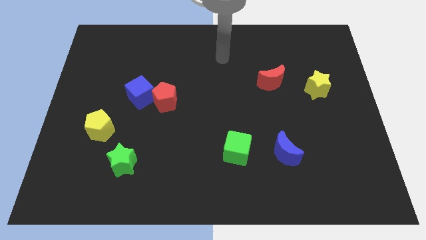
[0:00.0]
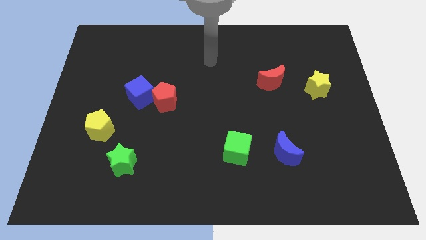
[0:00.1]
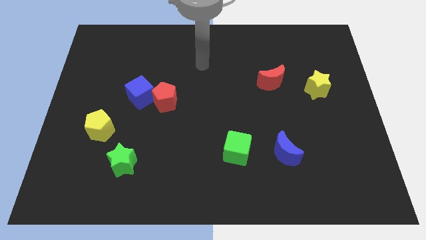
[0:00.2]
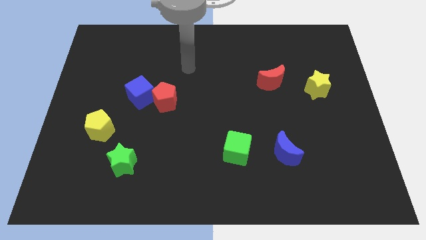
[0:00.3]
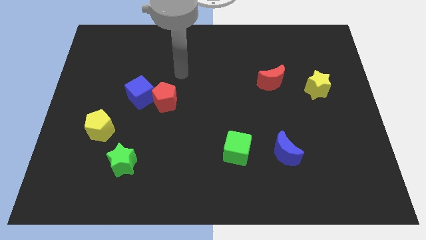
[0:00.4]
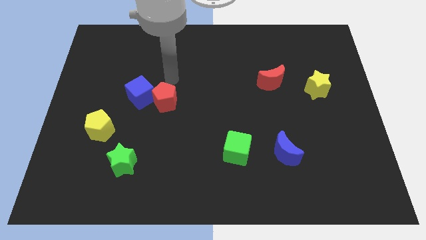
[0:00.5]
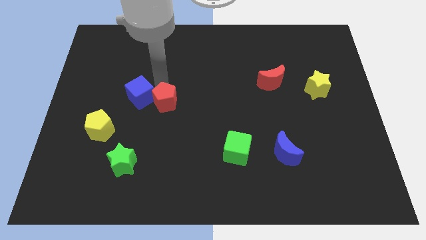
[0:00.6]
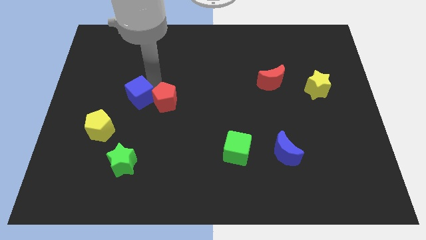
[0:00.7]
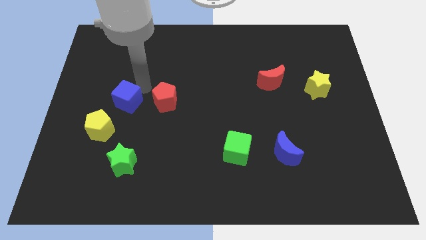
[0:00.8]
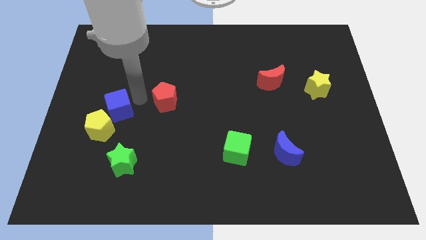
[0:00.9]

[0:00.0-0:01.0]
pull the red pentagon apart from the blue cube

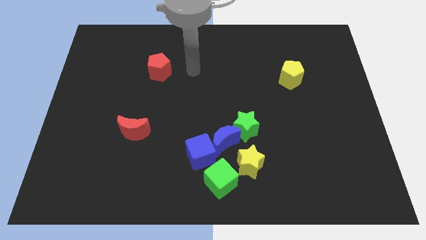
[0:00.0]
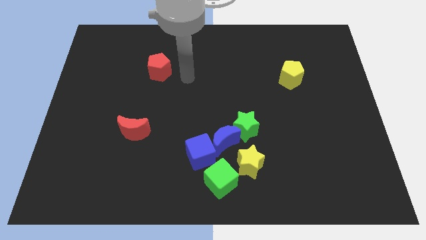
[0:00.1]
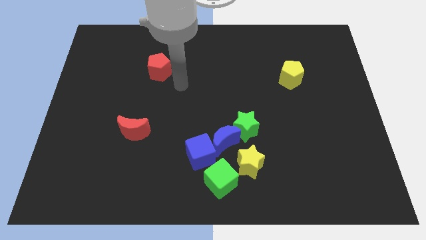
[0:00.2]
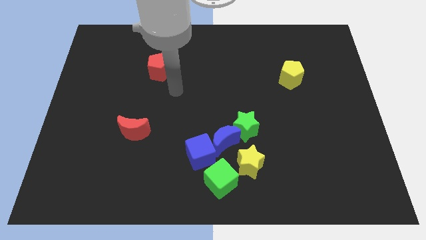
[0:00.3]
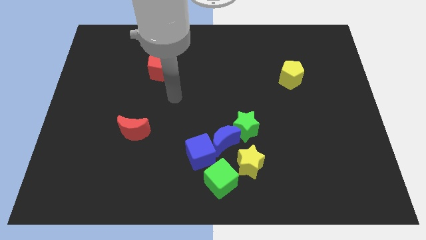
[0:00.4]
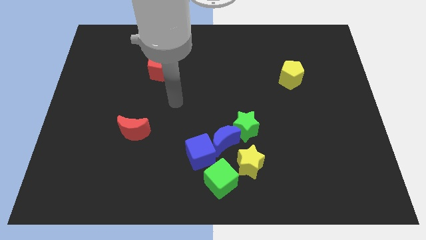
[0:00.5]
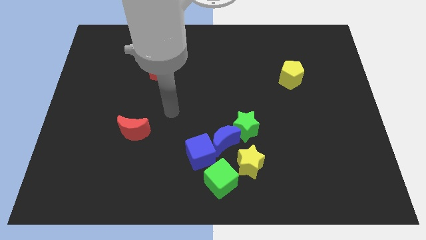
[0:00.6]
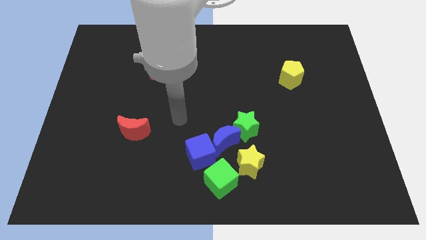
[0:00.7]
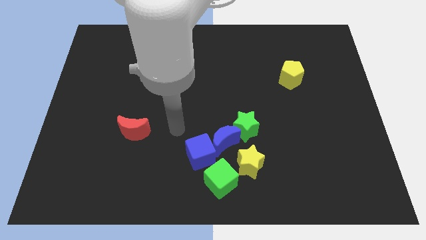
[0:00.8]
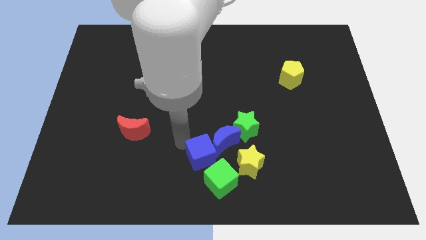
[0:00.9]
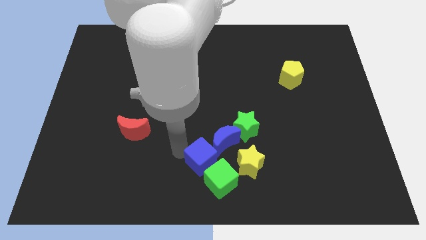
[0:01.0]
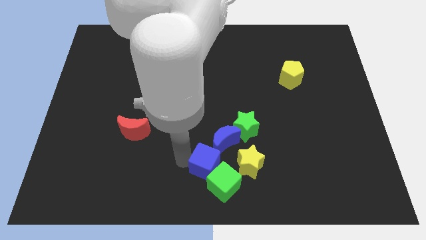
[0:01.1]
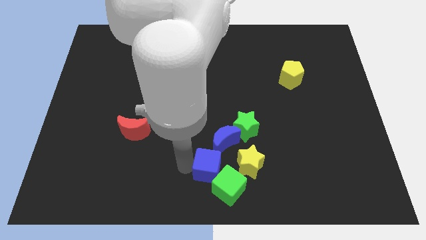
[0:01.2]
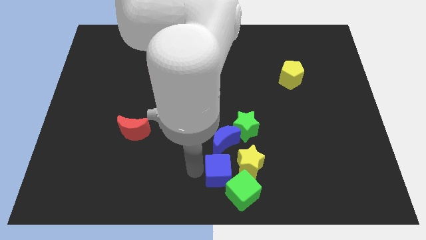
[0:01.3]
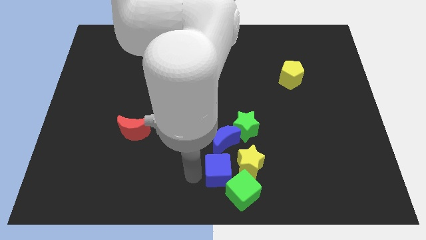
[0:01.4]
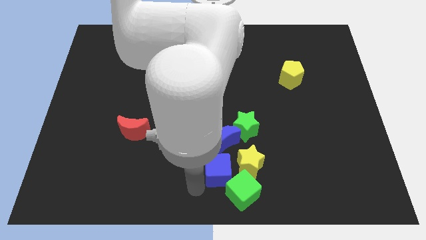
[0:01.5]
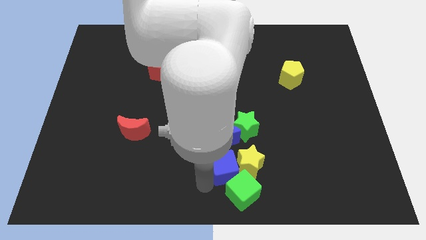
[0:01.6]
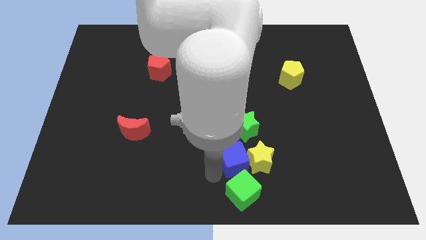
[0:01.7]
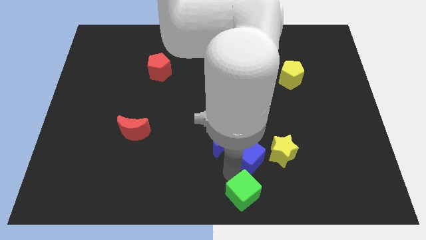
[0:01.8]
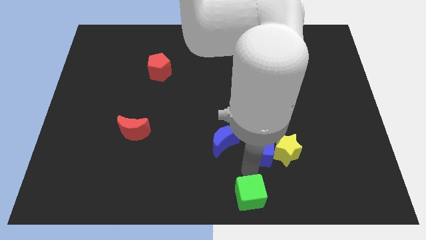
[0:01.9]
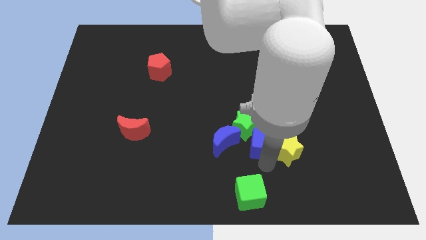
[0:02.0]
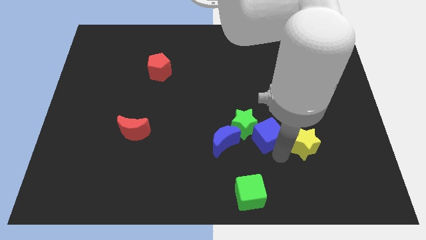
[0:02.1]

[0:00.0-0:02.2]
move the blue cube away from the blue moon and green cube

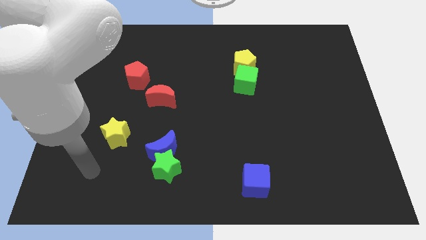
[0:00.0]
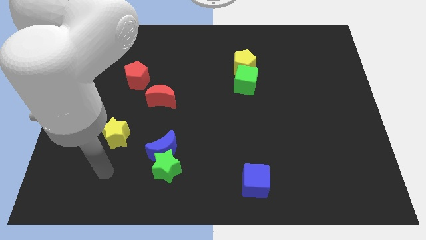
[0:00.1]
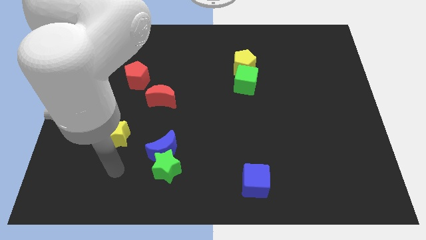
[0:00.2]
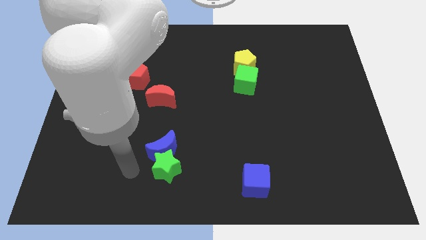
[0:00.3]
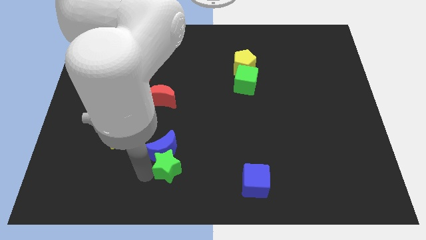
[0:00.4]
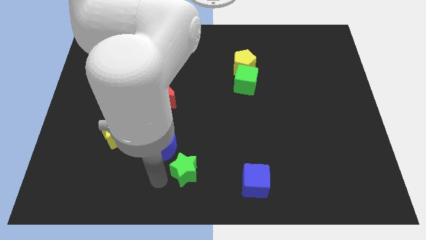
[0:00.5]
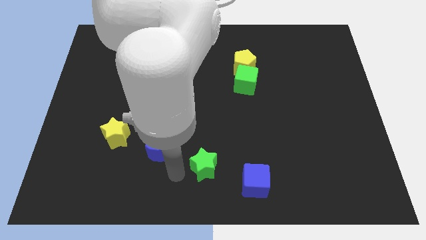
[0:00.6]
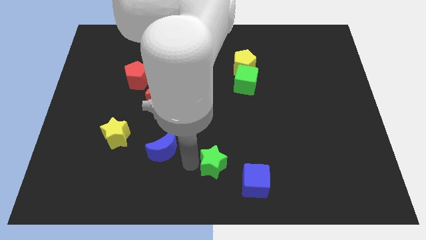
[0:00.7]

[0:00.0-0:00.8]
separate the blue moon from the green star

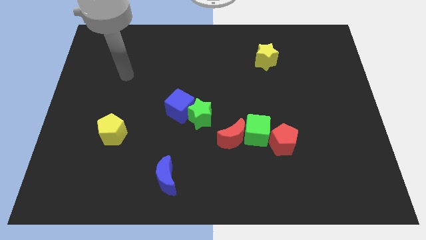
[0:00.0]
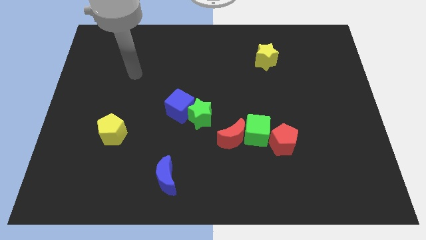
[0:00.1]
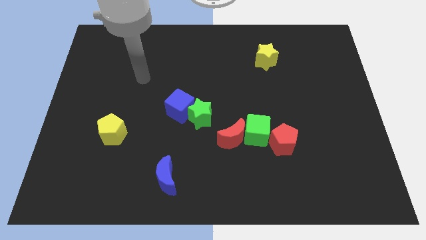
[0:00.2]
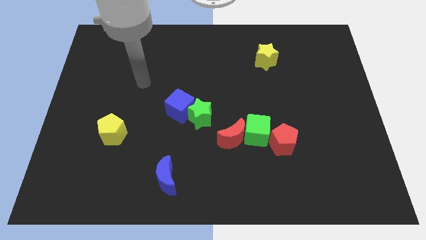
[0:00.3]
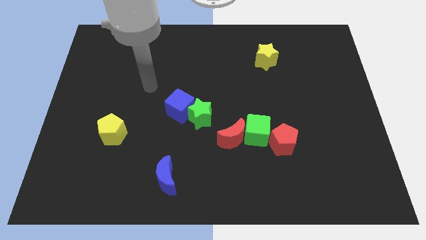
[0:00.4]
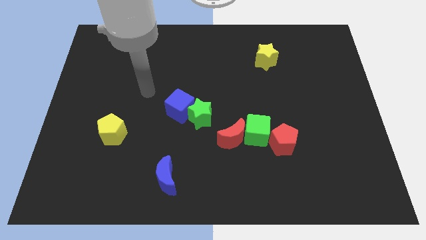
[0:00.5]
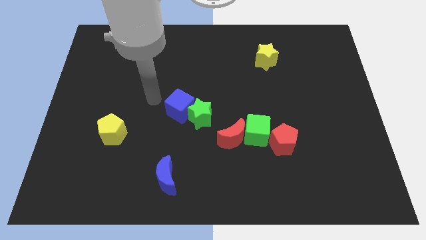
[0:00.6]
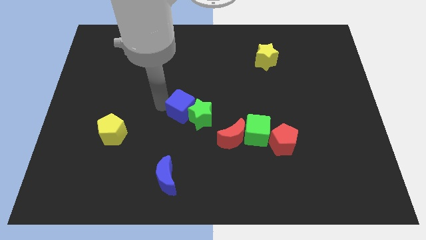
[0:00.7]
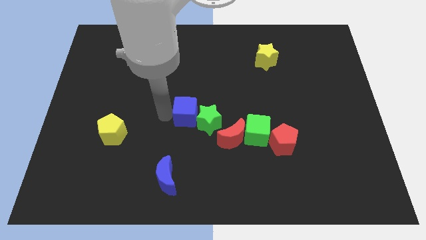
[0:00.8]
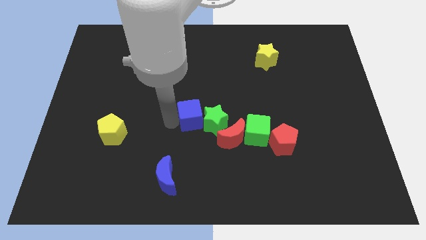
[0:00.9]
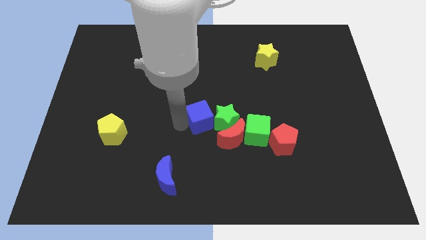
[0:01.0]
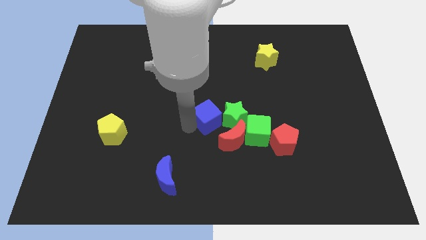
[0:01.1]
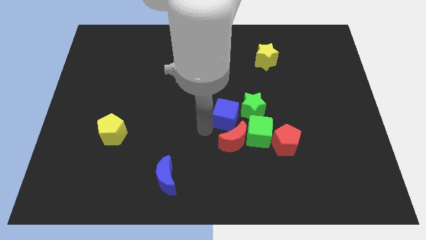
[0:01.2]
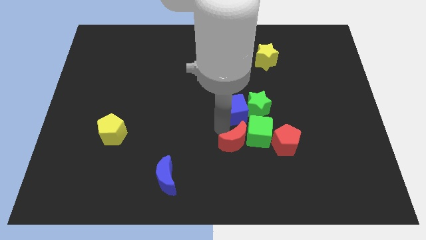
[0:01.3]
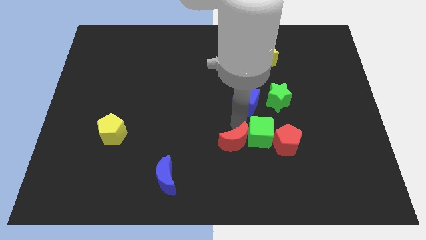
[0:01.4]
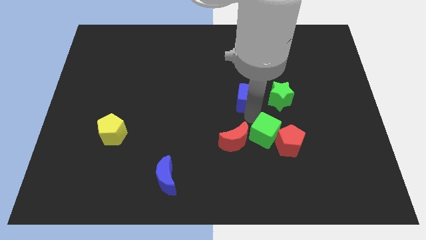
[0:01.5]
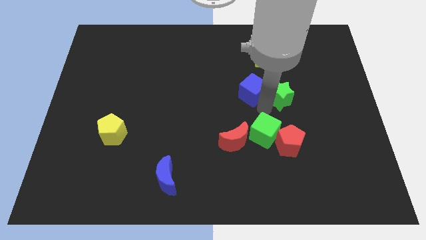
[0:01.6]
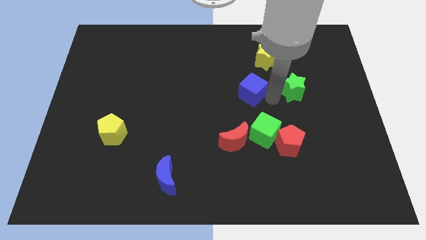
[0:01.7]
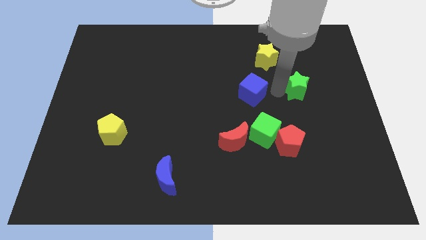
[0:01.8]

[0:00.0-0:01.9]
move the blue cube away from the green star

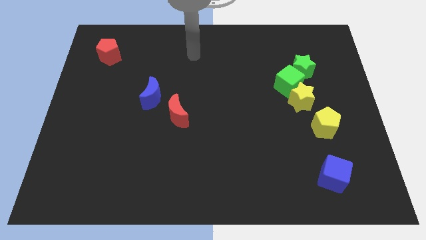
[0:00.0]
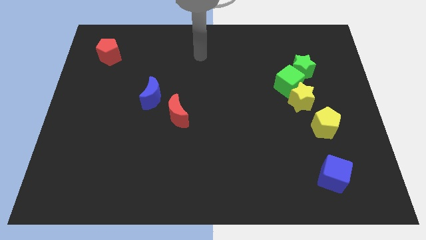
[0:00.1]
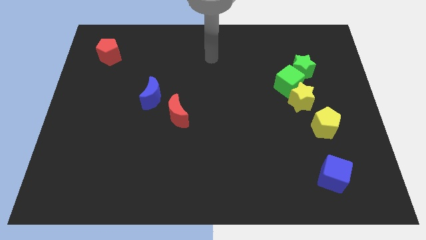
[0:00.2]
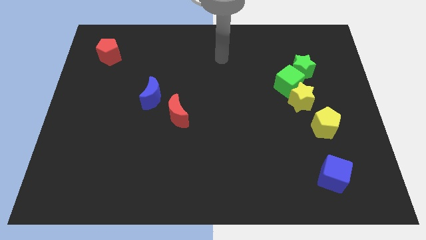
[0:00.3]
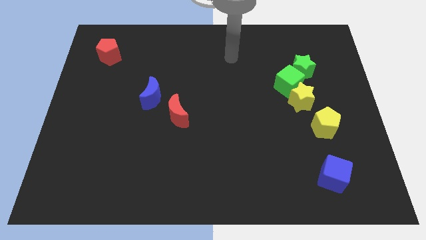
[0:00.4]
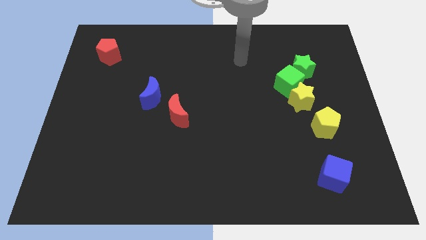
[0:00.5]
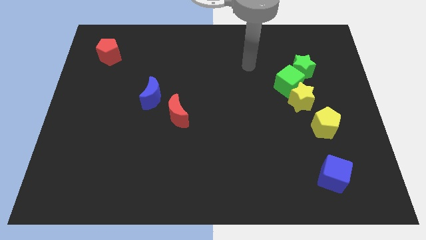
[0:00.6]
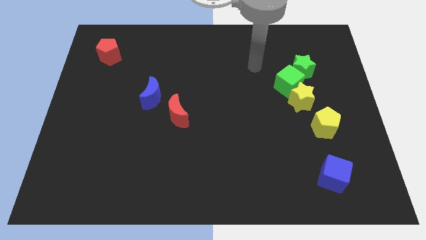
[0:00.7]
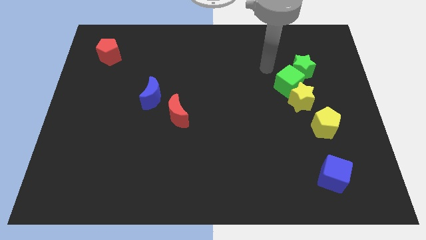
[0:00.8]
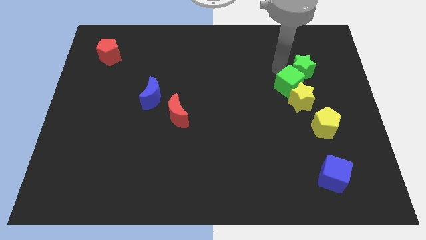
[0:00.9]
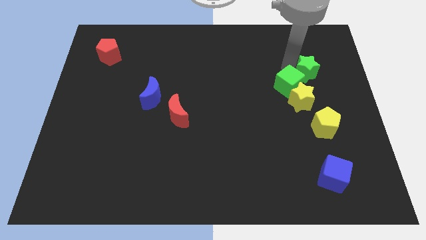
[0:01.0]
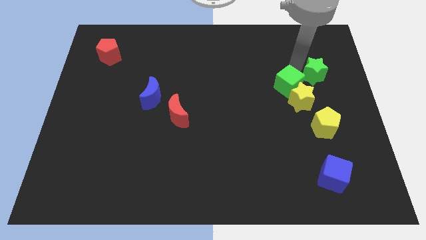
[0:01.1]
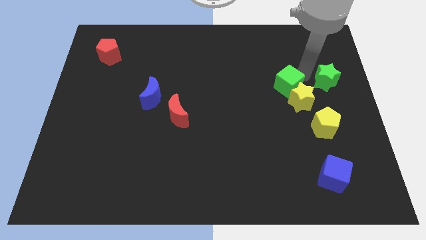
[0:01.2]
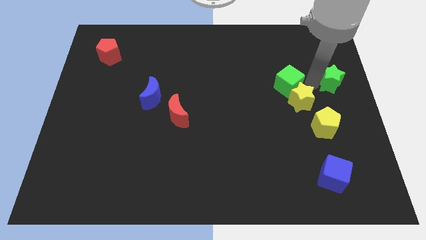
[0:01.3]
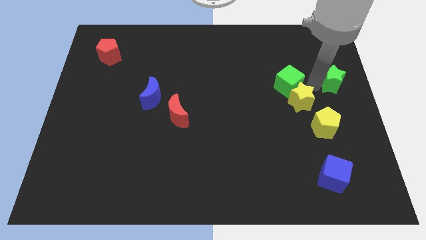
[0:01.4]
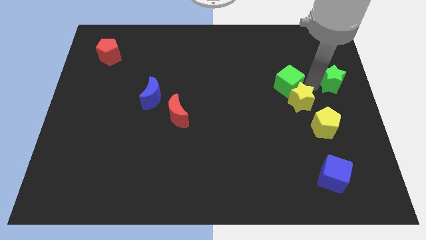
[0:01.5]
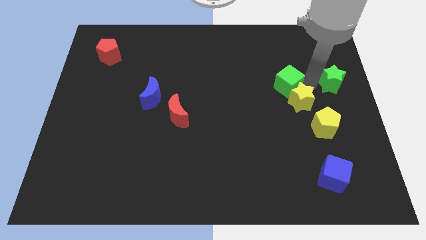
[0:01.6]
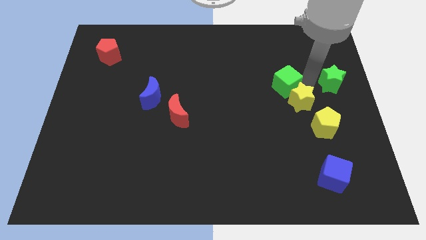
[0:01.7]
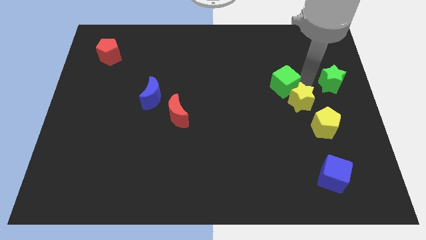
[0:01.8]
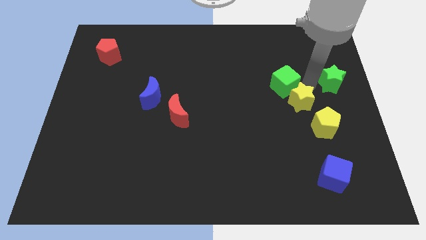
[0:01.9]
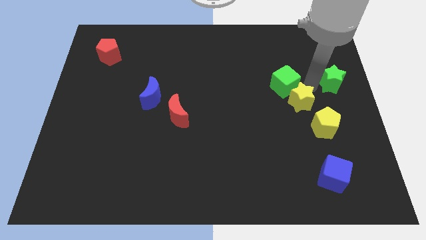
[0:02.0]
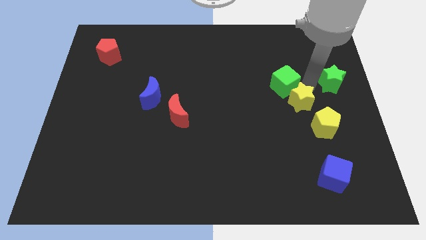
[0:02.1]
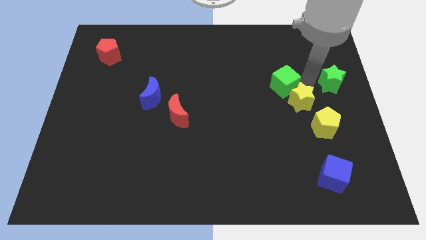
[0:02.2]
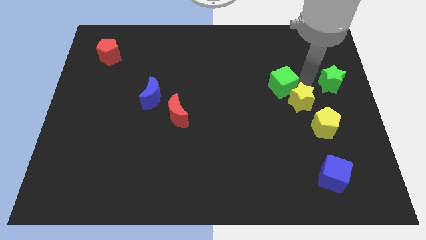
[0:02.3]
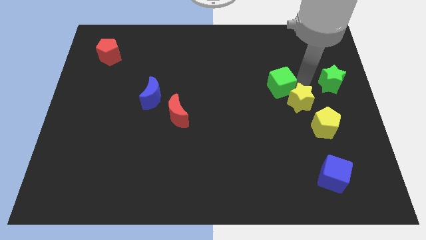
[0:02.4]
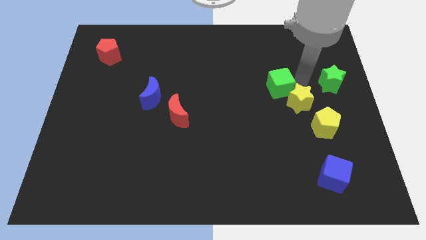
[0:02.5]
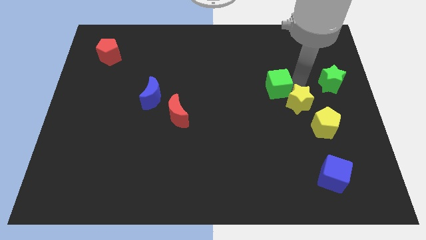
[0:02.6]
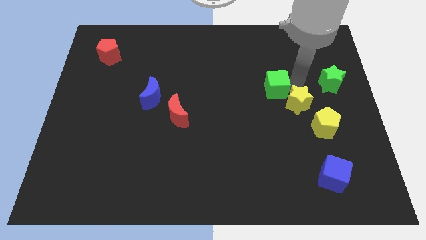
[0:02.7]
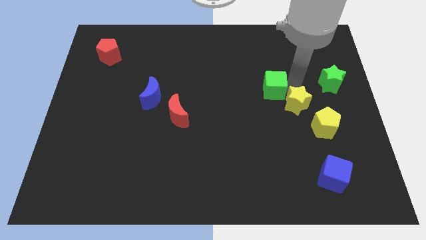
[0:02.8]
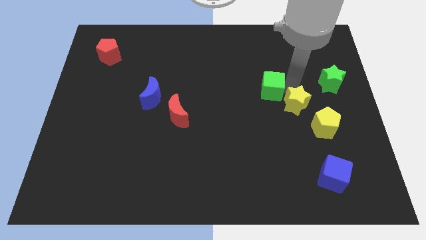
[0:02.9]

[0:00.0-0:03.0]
pull the green cube apart from the yellow star and green star

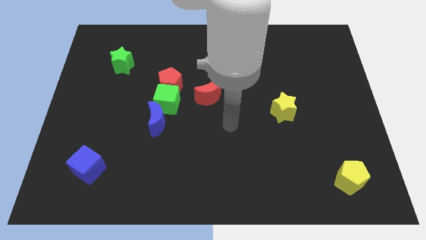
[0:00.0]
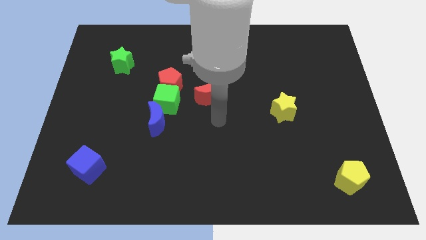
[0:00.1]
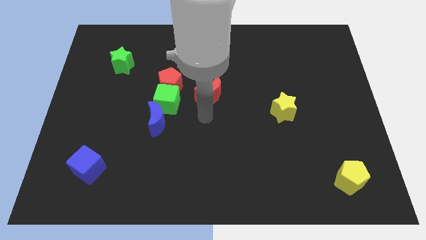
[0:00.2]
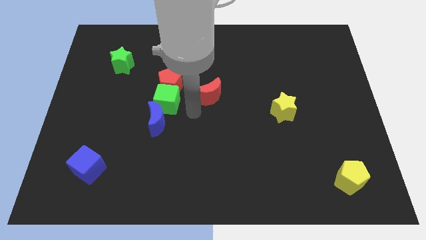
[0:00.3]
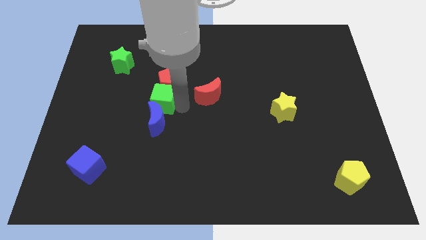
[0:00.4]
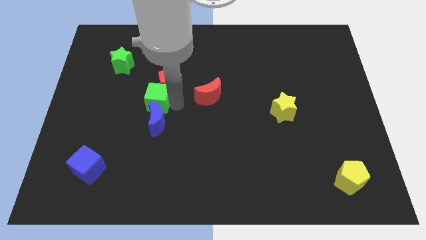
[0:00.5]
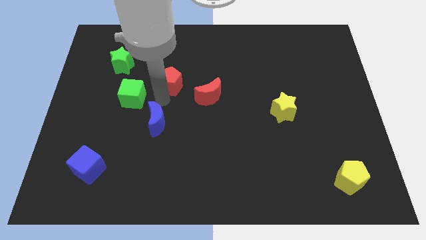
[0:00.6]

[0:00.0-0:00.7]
move the blue moon away from the green cube
